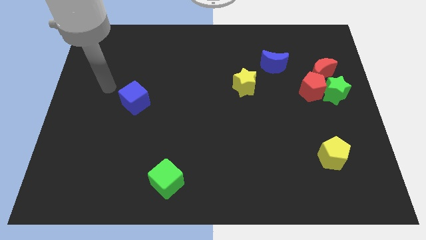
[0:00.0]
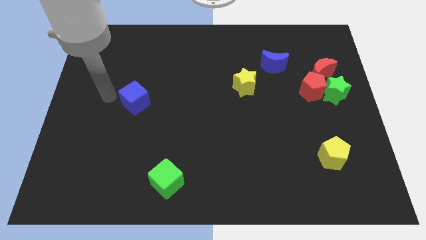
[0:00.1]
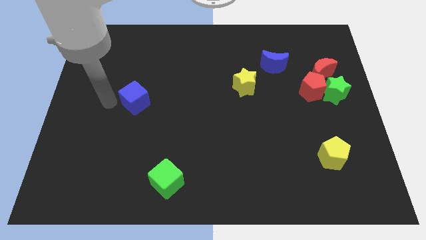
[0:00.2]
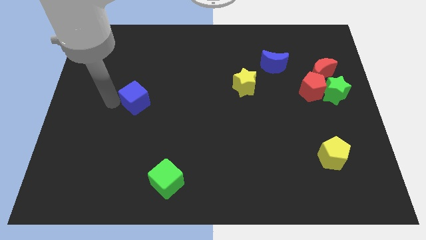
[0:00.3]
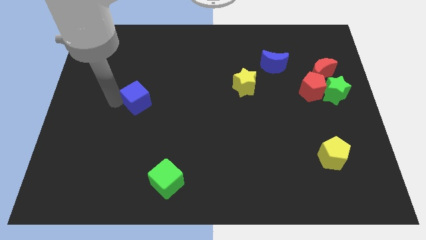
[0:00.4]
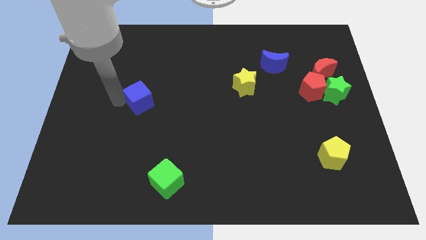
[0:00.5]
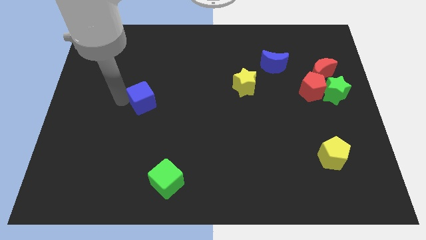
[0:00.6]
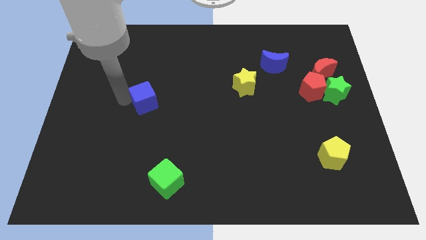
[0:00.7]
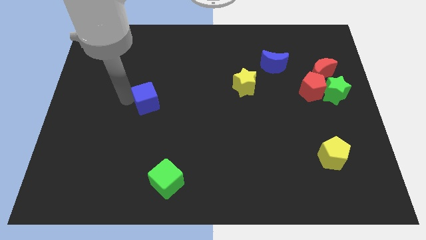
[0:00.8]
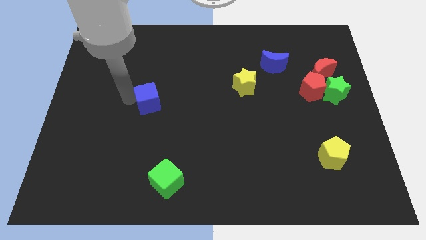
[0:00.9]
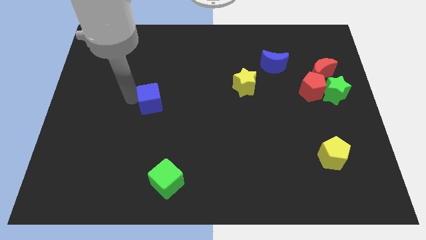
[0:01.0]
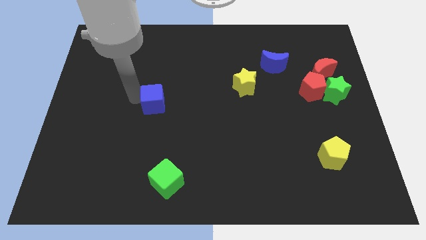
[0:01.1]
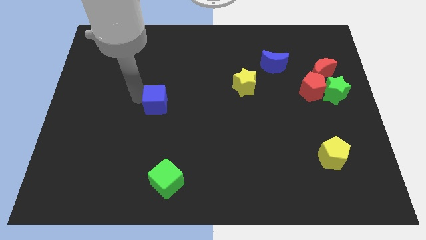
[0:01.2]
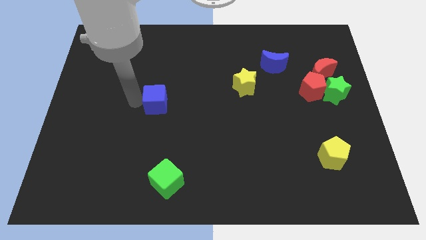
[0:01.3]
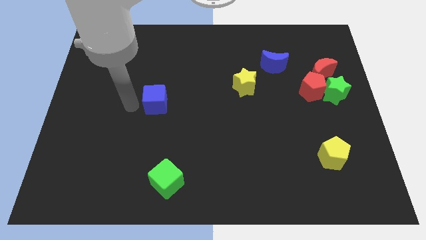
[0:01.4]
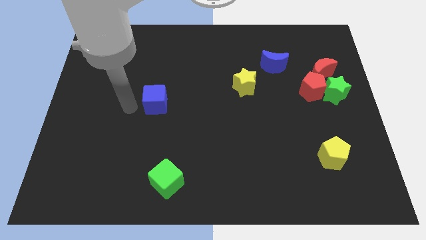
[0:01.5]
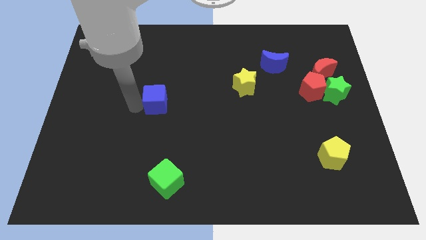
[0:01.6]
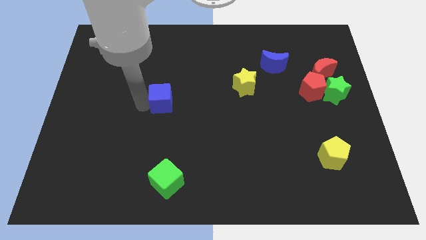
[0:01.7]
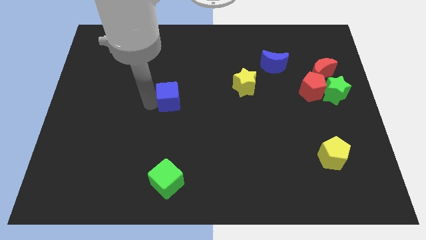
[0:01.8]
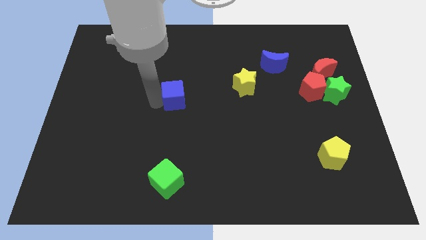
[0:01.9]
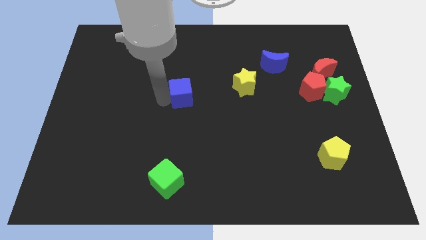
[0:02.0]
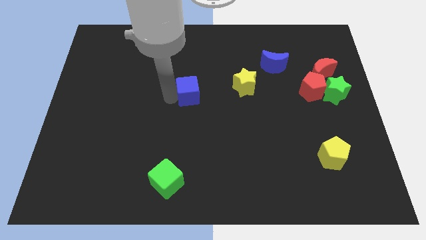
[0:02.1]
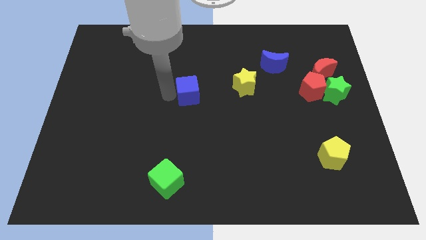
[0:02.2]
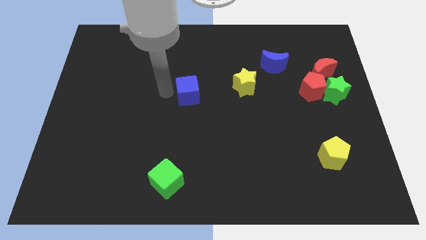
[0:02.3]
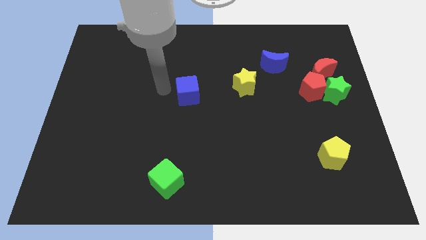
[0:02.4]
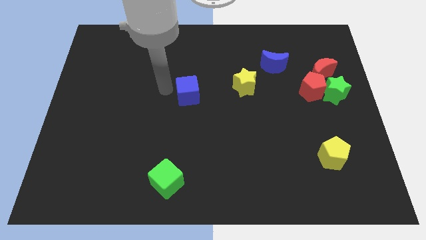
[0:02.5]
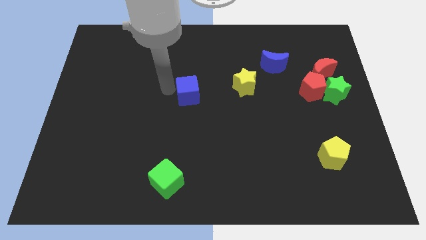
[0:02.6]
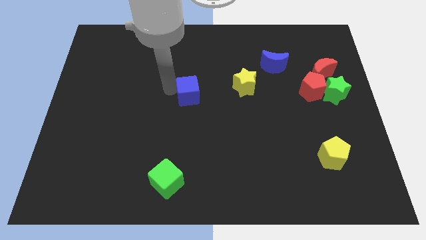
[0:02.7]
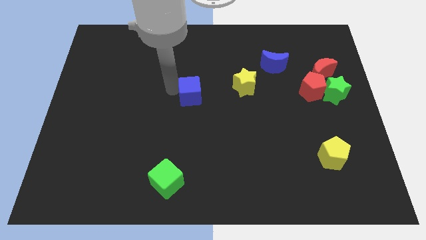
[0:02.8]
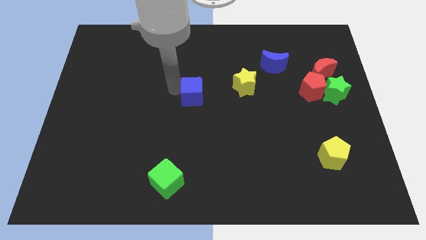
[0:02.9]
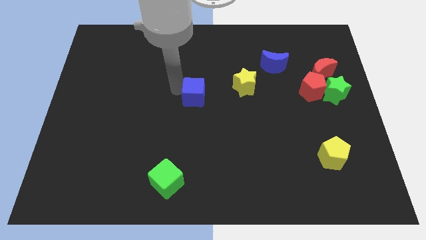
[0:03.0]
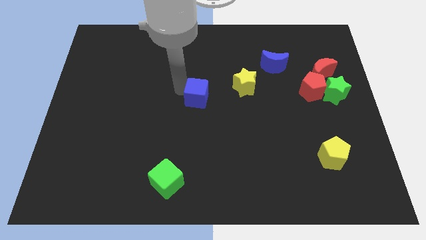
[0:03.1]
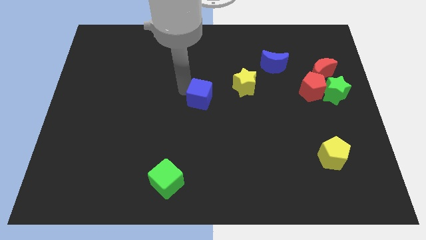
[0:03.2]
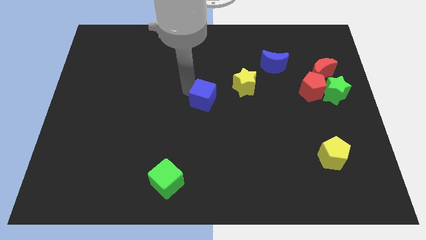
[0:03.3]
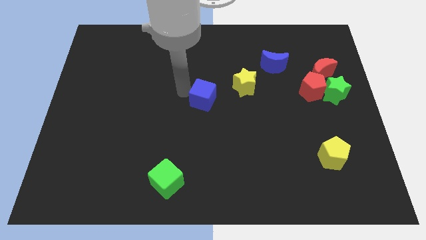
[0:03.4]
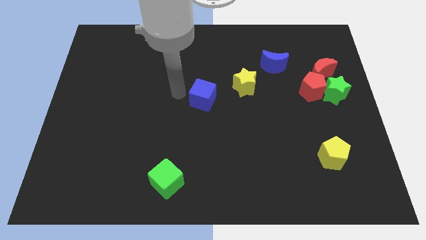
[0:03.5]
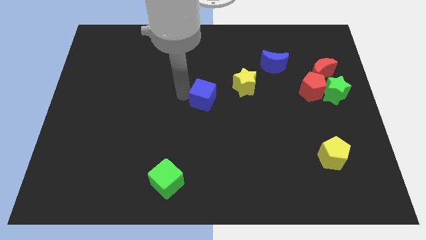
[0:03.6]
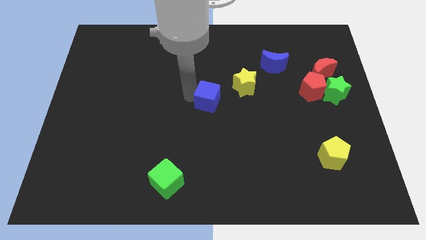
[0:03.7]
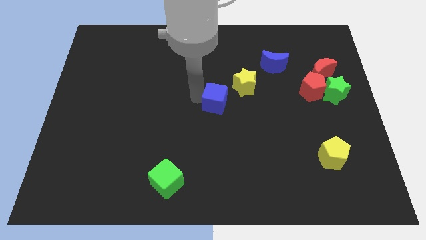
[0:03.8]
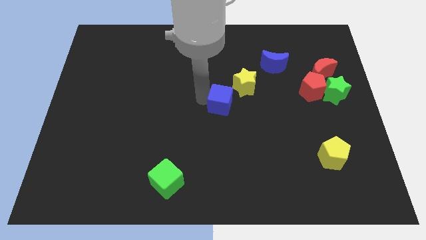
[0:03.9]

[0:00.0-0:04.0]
slide the blue cube right

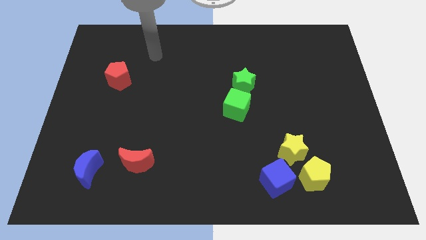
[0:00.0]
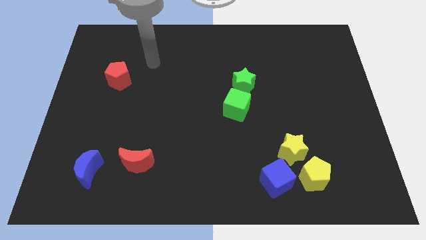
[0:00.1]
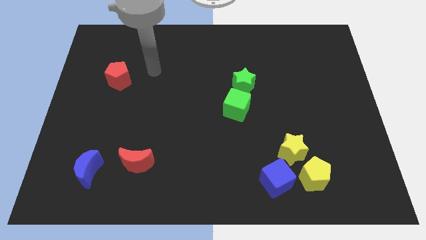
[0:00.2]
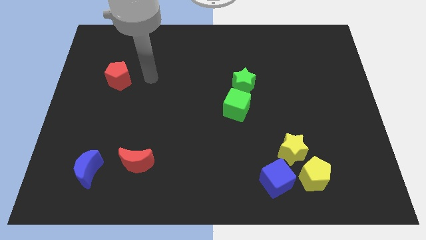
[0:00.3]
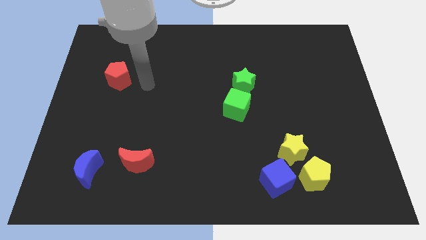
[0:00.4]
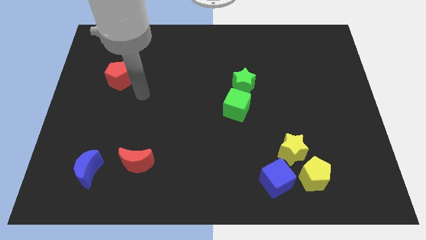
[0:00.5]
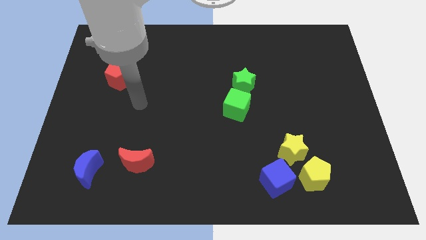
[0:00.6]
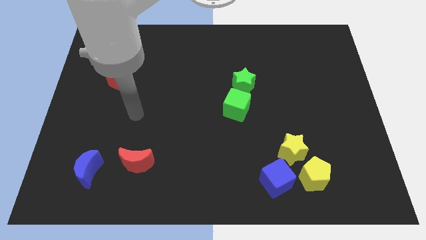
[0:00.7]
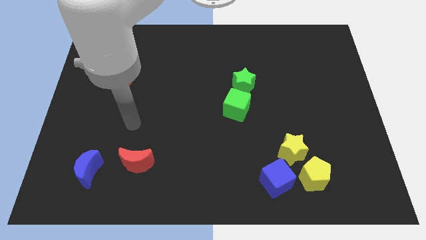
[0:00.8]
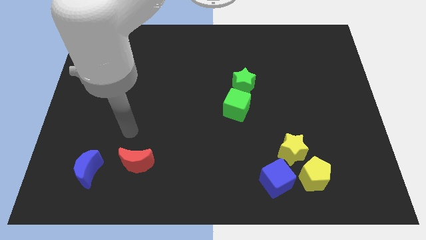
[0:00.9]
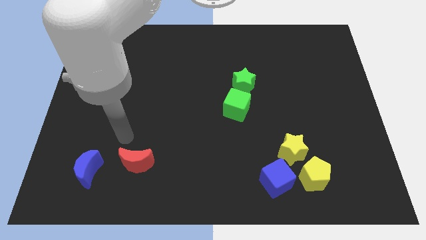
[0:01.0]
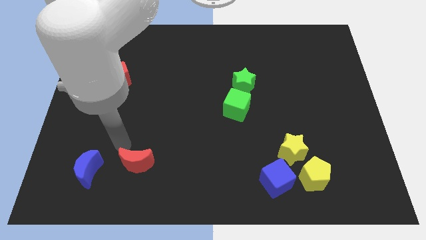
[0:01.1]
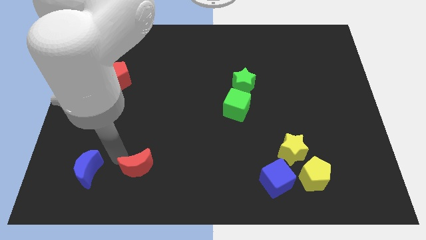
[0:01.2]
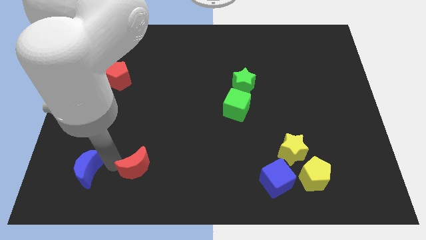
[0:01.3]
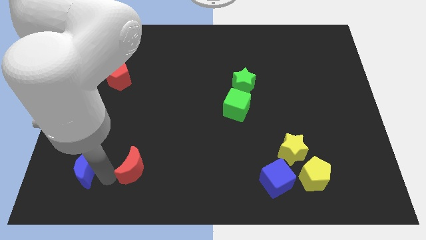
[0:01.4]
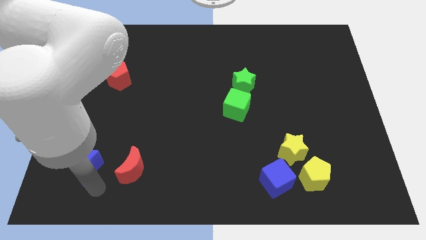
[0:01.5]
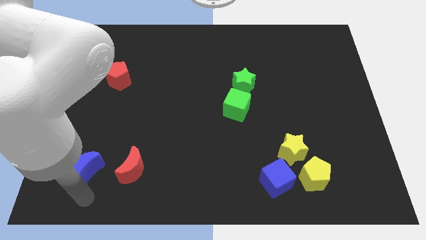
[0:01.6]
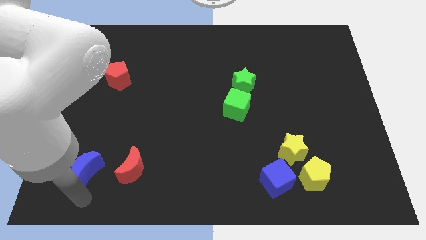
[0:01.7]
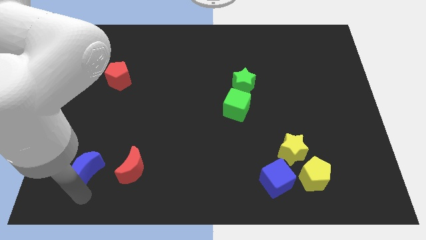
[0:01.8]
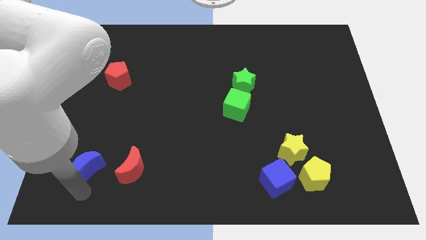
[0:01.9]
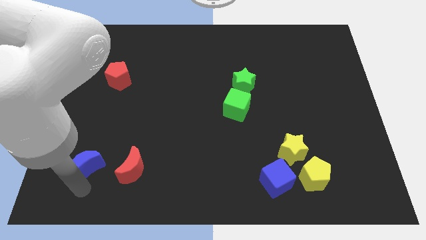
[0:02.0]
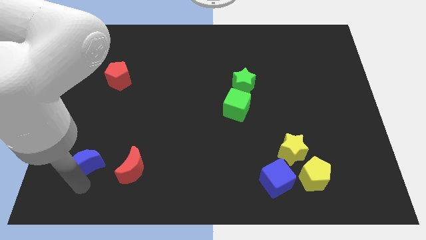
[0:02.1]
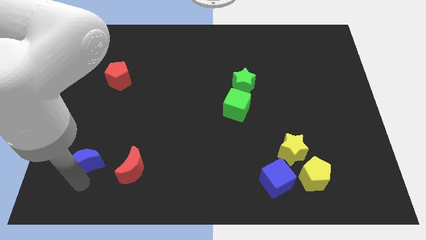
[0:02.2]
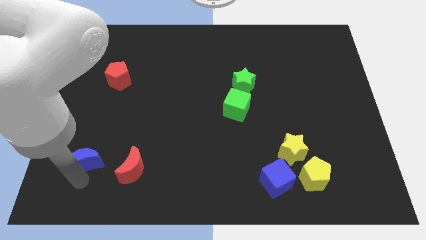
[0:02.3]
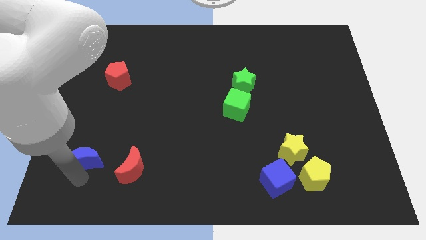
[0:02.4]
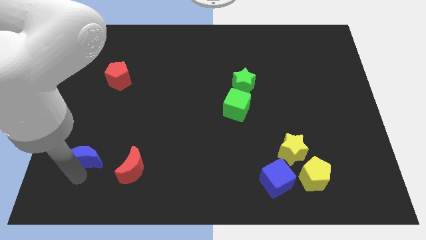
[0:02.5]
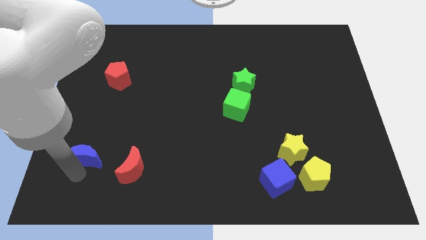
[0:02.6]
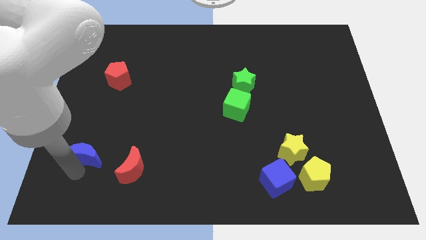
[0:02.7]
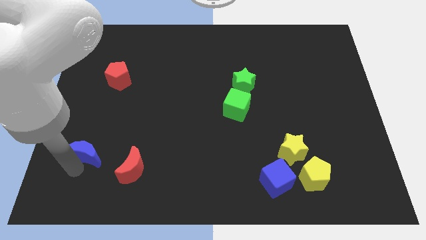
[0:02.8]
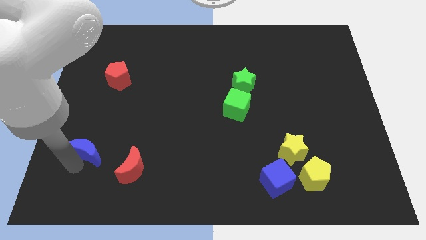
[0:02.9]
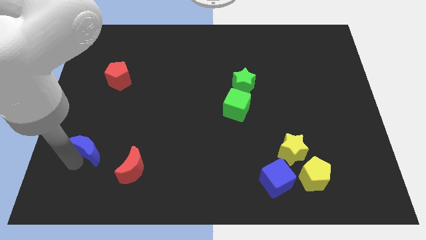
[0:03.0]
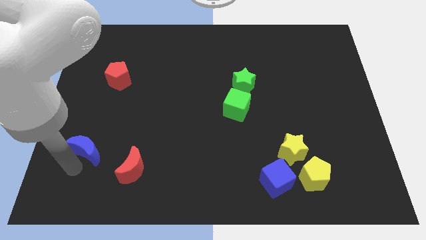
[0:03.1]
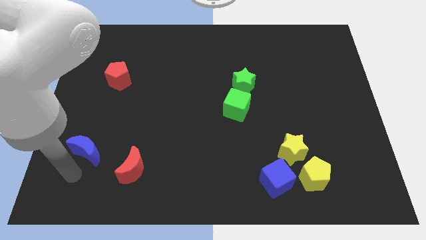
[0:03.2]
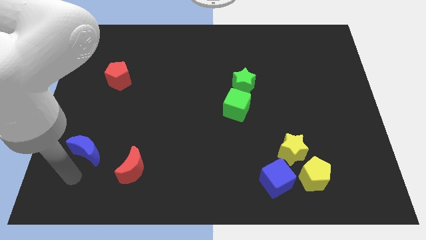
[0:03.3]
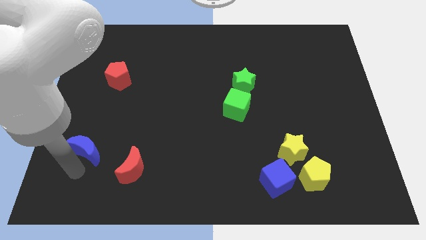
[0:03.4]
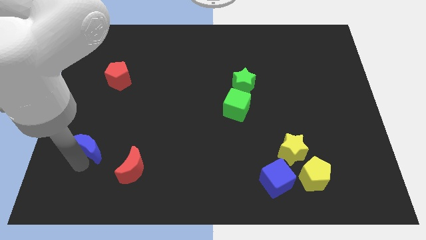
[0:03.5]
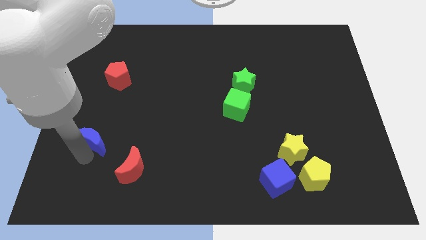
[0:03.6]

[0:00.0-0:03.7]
push the blue moon upwards a little bit

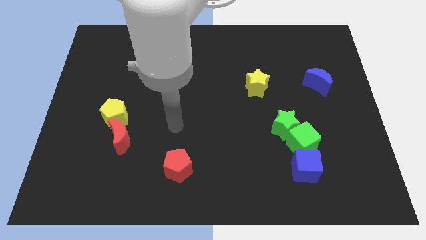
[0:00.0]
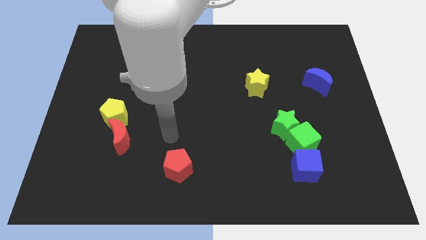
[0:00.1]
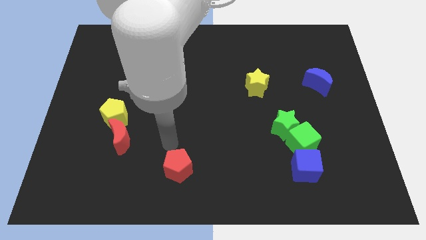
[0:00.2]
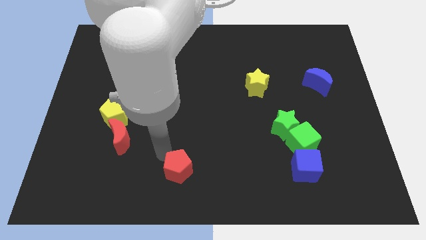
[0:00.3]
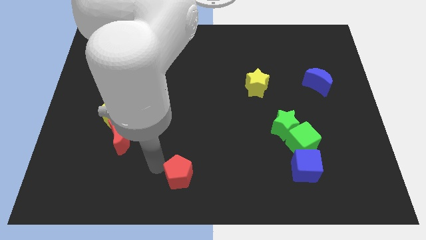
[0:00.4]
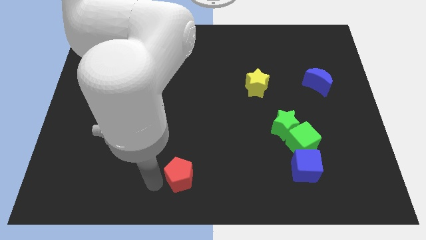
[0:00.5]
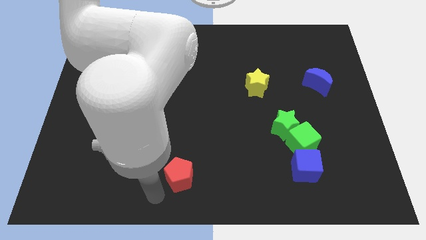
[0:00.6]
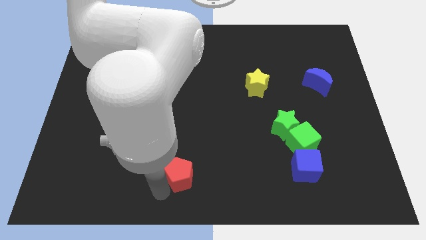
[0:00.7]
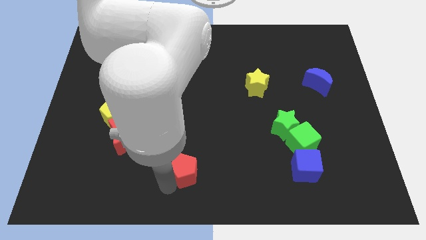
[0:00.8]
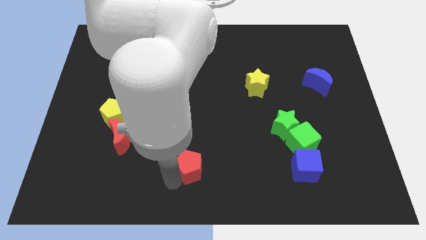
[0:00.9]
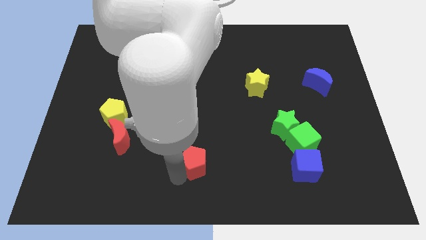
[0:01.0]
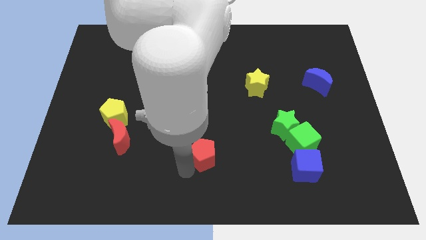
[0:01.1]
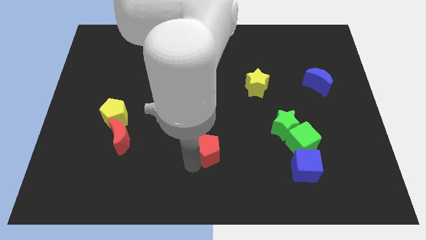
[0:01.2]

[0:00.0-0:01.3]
move the red pentagon diagonally up and to the right slightly
